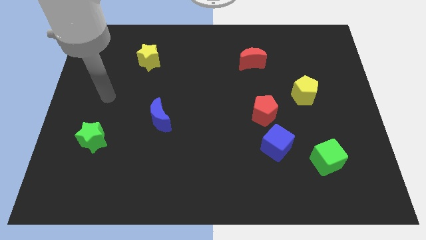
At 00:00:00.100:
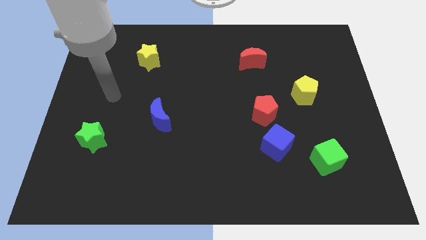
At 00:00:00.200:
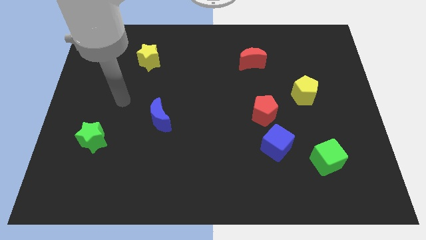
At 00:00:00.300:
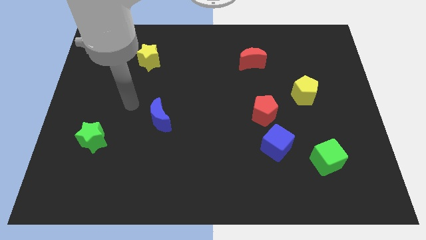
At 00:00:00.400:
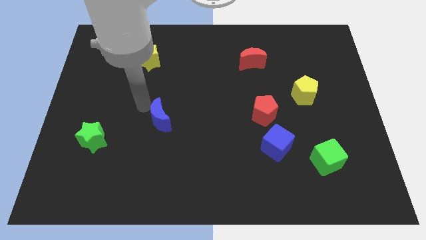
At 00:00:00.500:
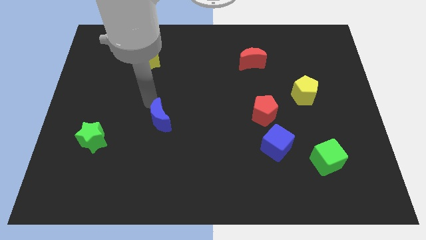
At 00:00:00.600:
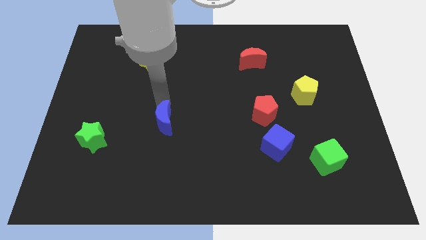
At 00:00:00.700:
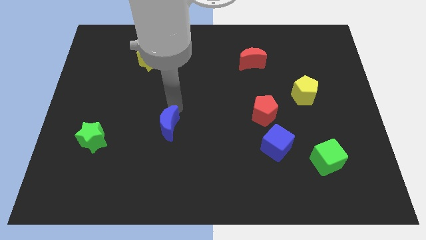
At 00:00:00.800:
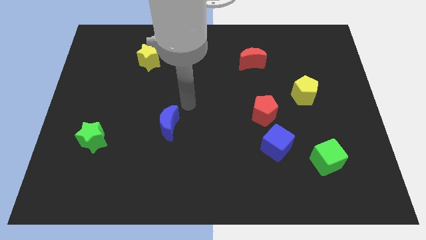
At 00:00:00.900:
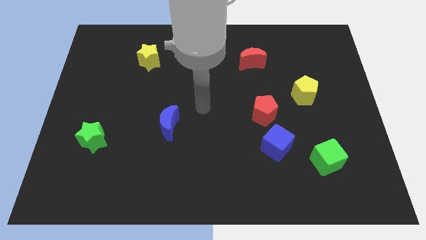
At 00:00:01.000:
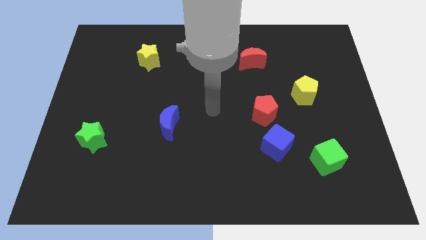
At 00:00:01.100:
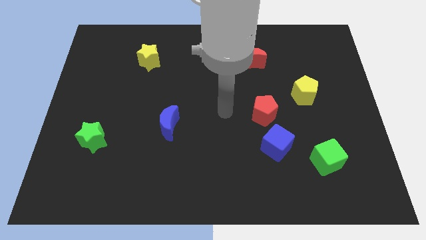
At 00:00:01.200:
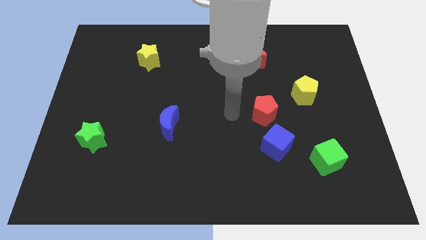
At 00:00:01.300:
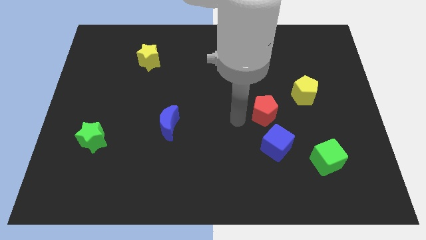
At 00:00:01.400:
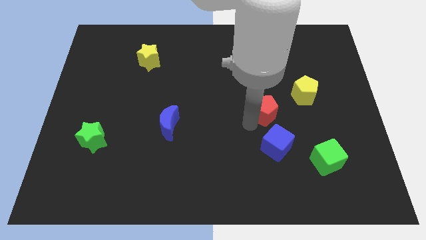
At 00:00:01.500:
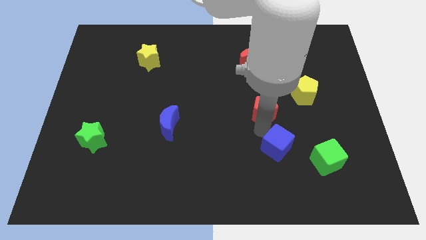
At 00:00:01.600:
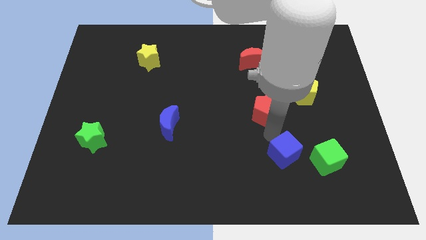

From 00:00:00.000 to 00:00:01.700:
separate the red pentagon from the blue cube

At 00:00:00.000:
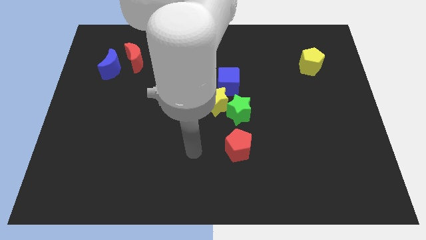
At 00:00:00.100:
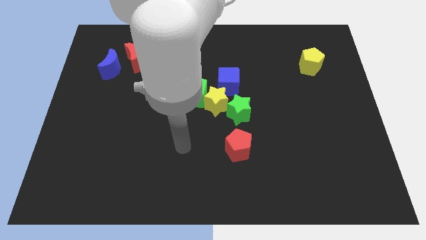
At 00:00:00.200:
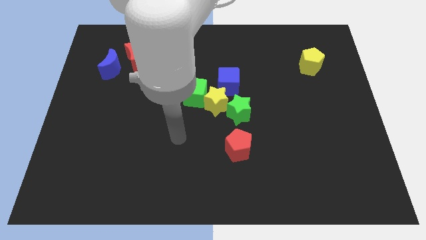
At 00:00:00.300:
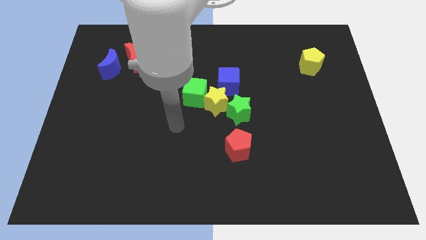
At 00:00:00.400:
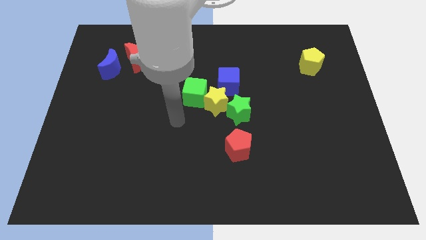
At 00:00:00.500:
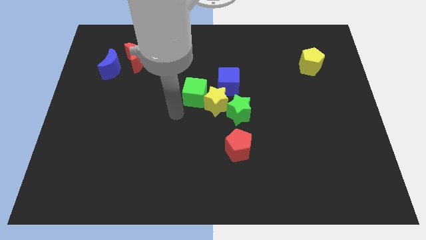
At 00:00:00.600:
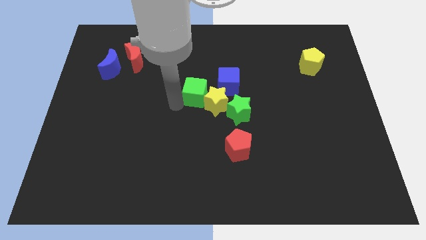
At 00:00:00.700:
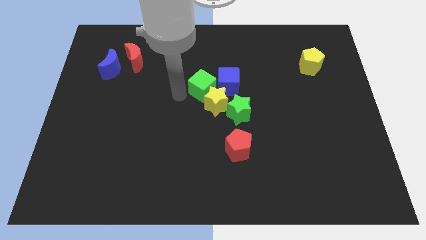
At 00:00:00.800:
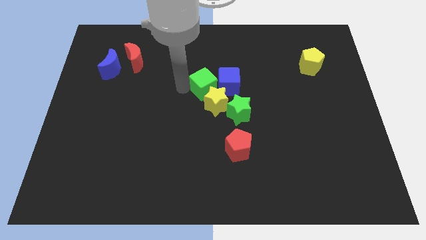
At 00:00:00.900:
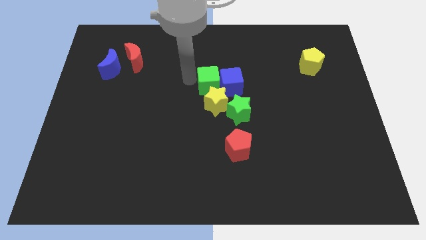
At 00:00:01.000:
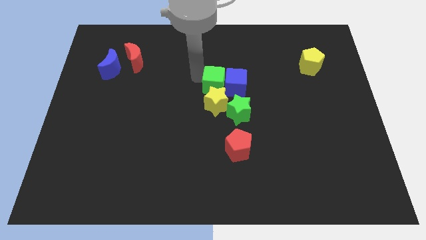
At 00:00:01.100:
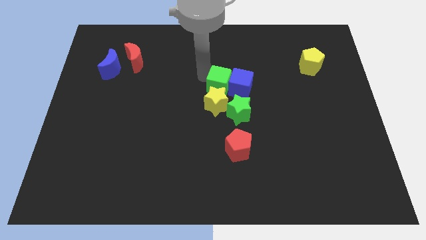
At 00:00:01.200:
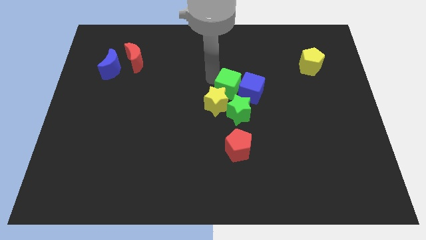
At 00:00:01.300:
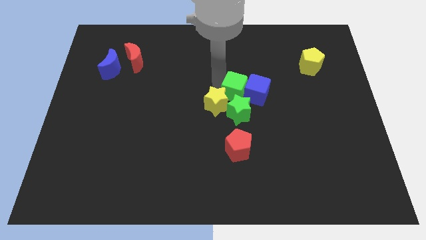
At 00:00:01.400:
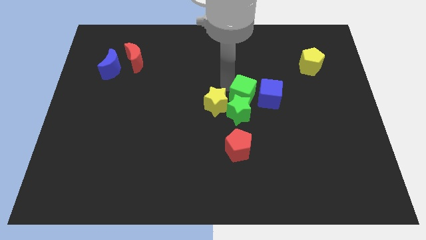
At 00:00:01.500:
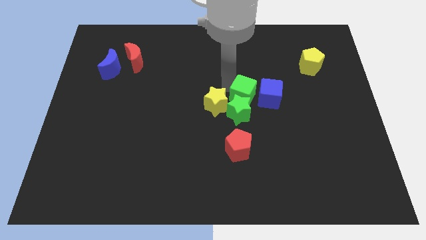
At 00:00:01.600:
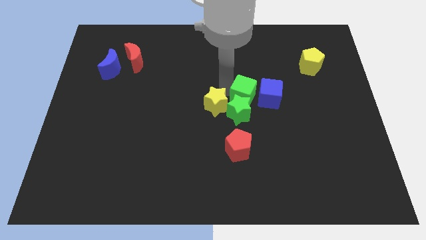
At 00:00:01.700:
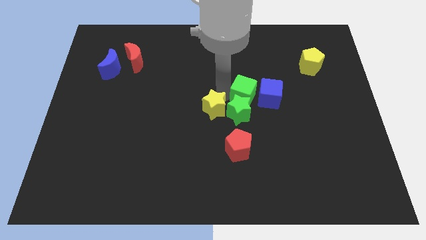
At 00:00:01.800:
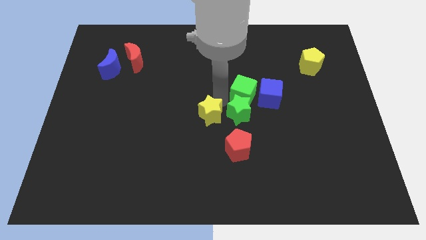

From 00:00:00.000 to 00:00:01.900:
pull the yellow star apart from the green star, green cube, and blue cube

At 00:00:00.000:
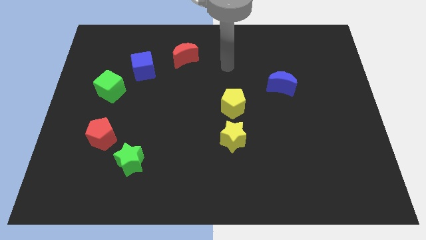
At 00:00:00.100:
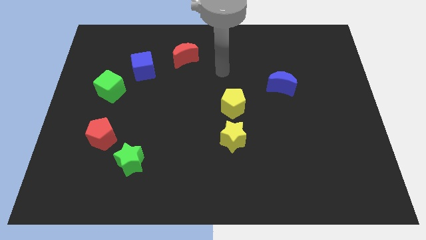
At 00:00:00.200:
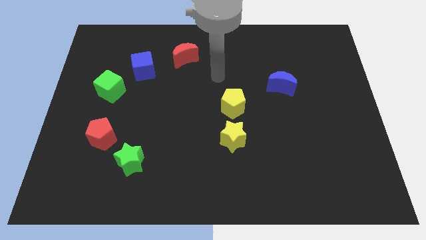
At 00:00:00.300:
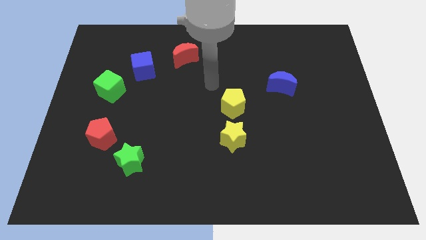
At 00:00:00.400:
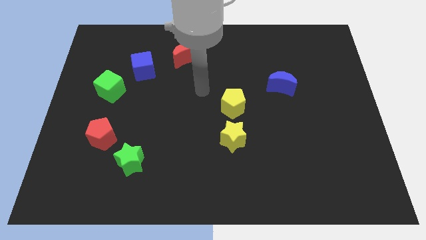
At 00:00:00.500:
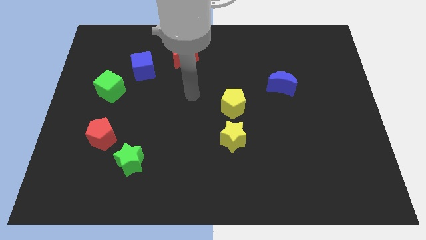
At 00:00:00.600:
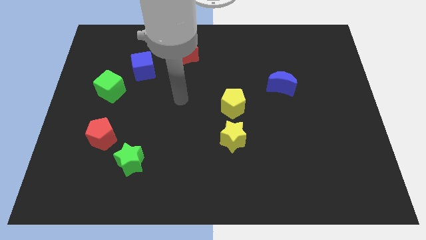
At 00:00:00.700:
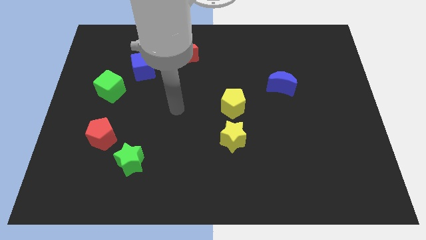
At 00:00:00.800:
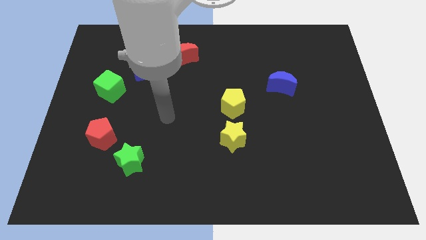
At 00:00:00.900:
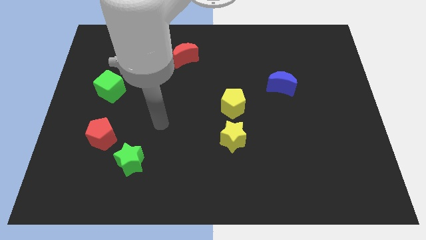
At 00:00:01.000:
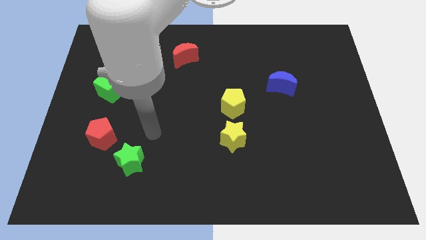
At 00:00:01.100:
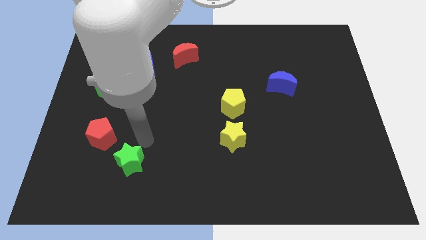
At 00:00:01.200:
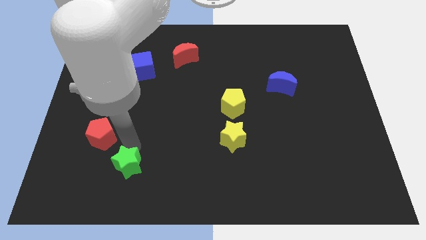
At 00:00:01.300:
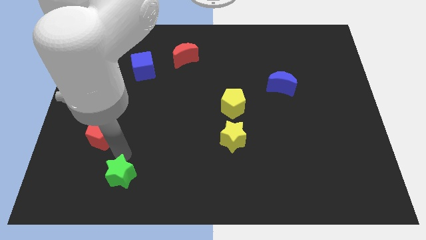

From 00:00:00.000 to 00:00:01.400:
move the red pentagon away from the green star

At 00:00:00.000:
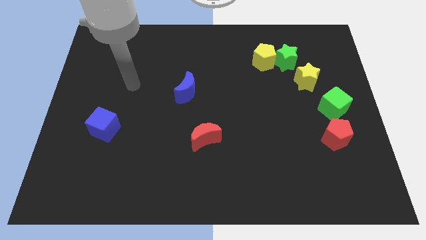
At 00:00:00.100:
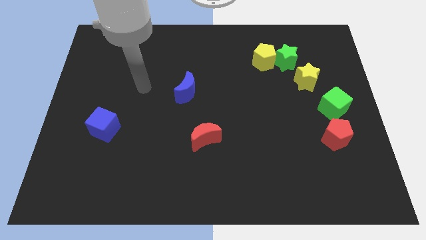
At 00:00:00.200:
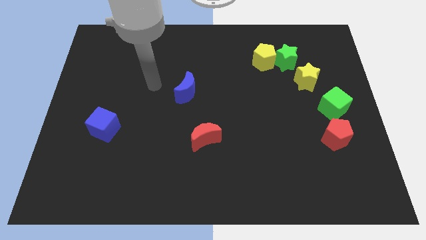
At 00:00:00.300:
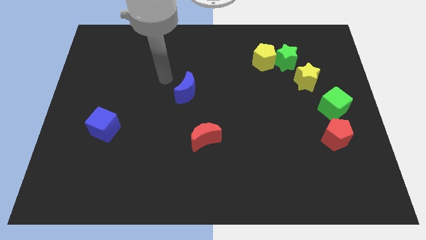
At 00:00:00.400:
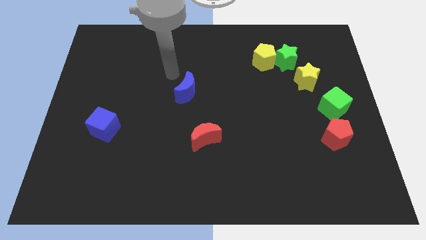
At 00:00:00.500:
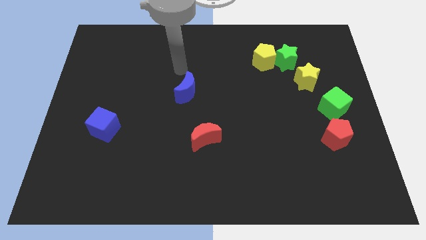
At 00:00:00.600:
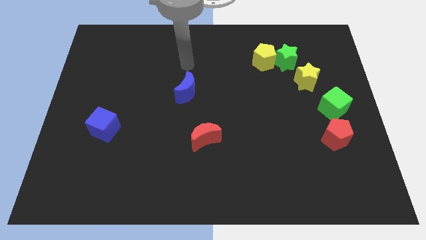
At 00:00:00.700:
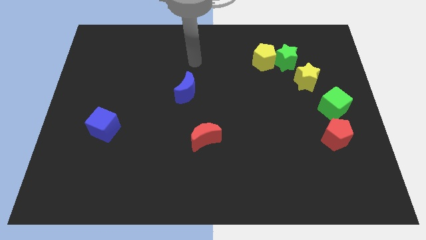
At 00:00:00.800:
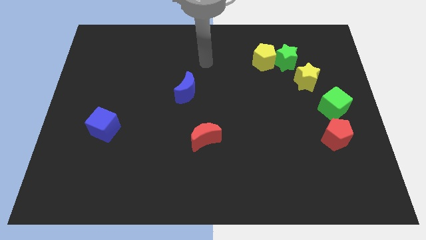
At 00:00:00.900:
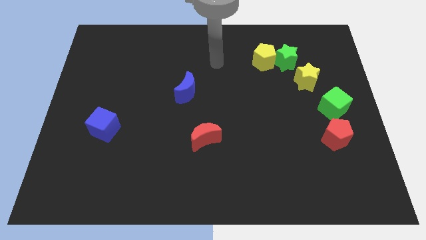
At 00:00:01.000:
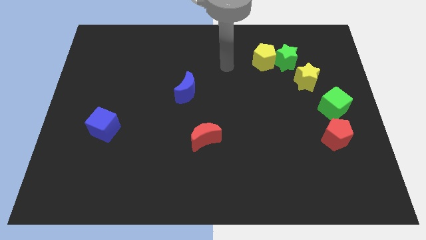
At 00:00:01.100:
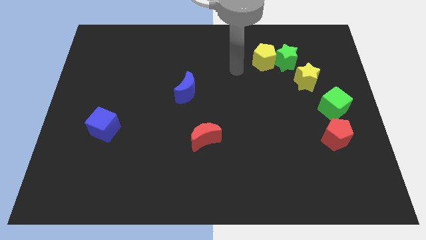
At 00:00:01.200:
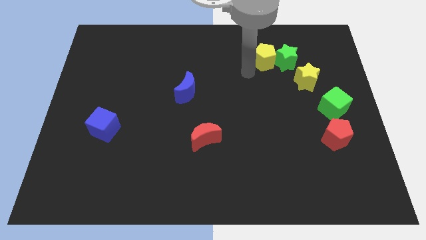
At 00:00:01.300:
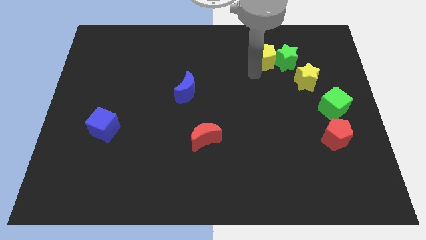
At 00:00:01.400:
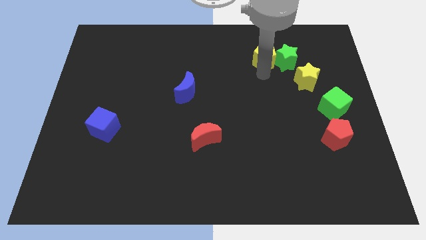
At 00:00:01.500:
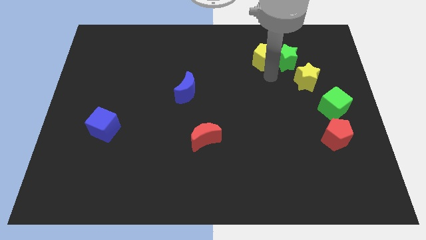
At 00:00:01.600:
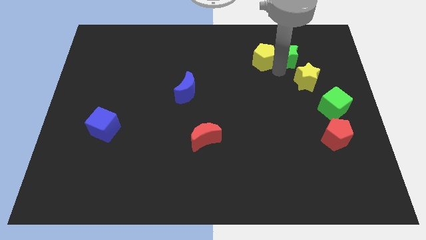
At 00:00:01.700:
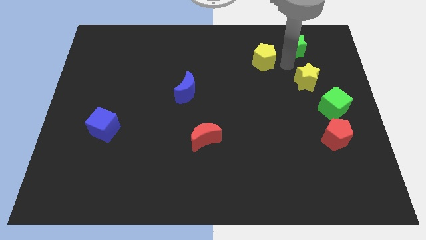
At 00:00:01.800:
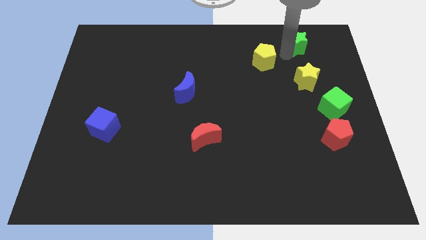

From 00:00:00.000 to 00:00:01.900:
separate the yellow pentagon from the green star

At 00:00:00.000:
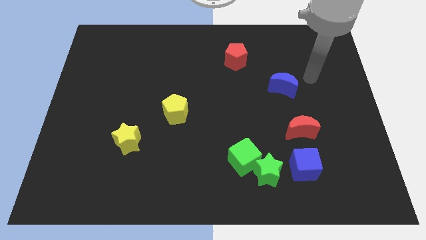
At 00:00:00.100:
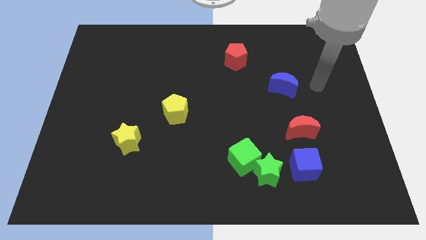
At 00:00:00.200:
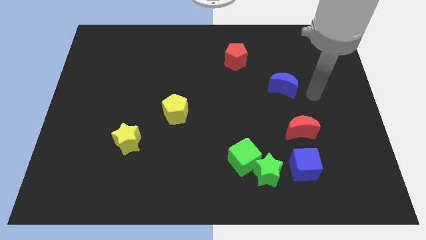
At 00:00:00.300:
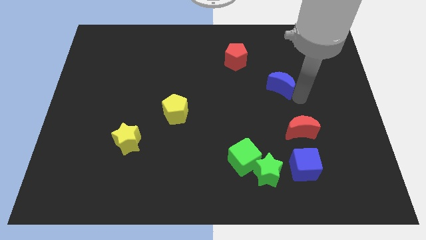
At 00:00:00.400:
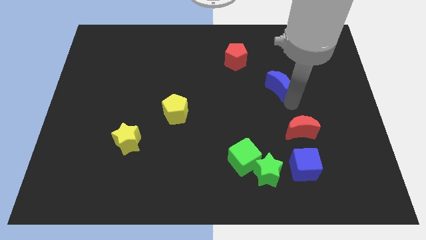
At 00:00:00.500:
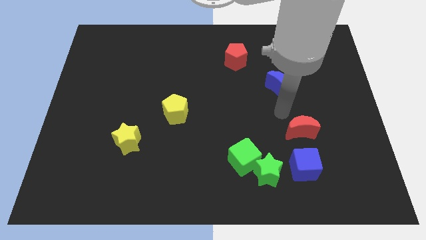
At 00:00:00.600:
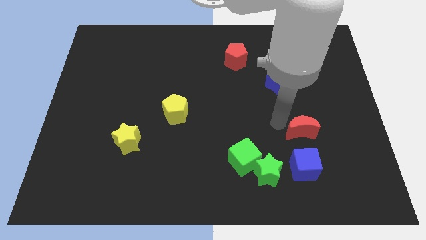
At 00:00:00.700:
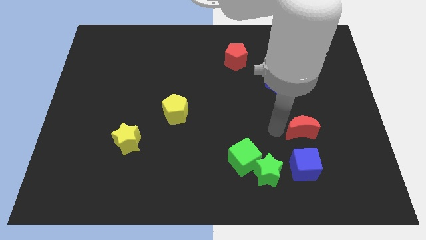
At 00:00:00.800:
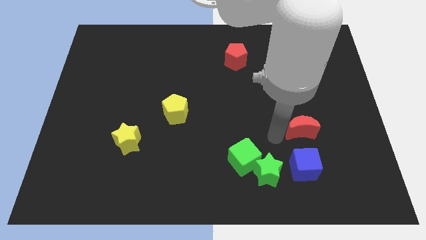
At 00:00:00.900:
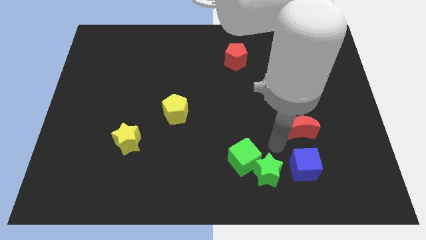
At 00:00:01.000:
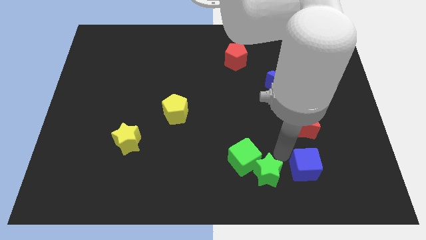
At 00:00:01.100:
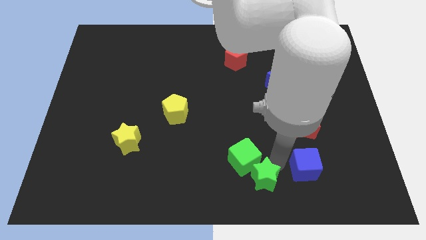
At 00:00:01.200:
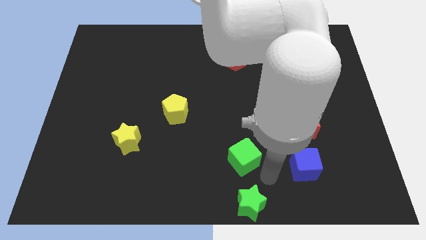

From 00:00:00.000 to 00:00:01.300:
move the green cube away from the green star

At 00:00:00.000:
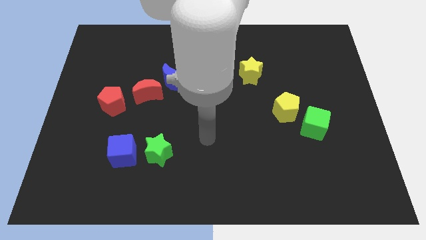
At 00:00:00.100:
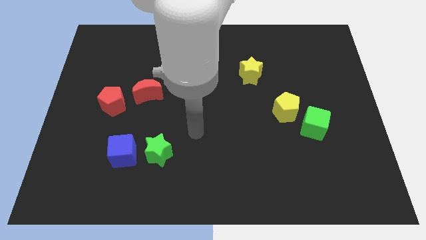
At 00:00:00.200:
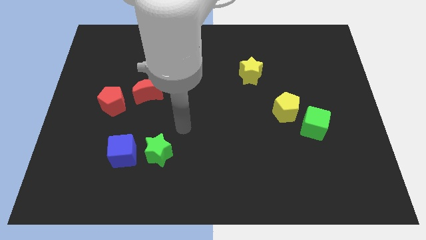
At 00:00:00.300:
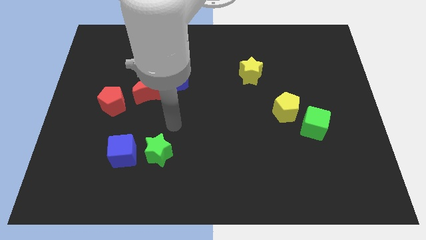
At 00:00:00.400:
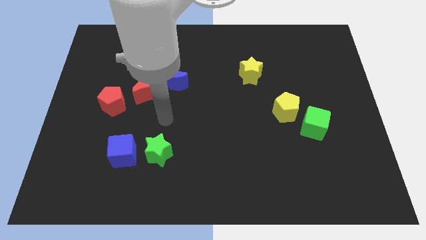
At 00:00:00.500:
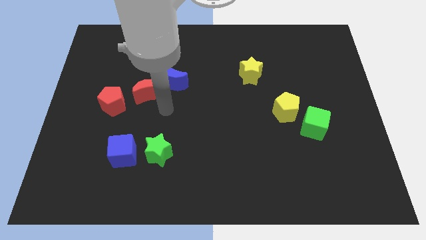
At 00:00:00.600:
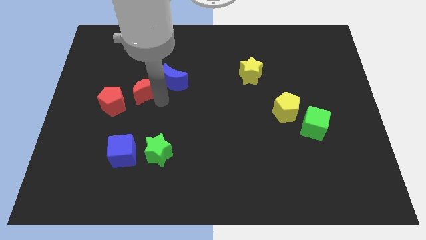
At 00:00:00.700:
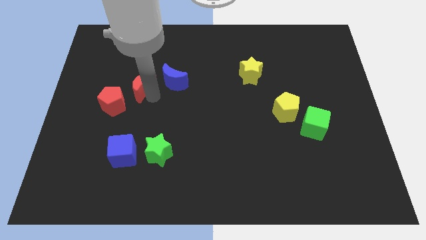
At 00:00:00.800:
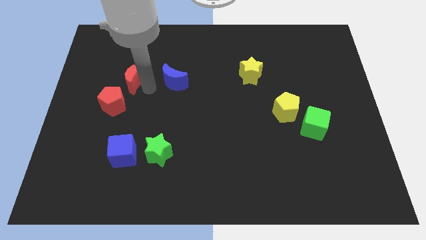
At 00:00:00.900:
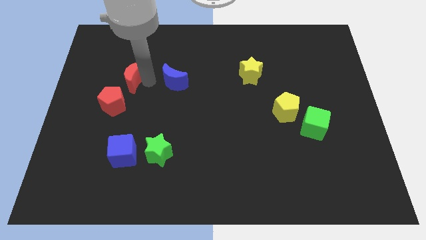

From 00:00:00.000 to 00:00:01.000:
pull the blue moon apart from the red moon
